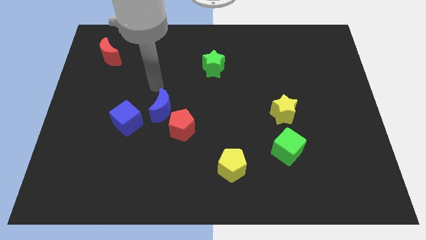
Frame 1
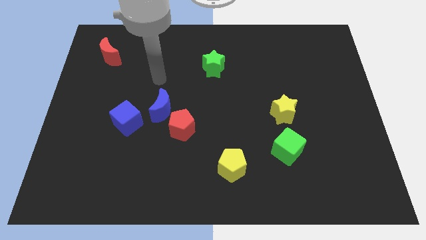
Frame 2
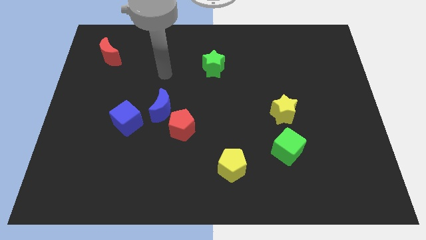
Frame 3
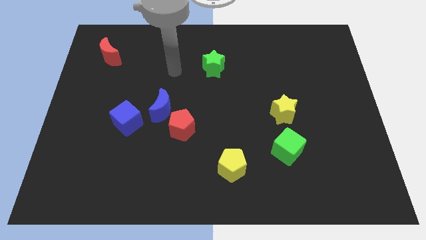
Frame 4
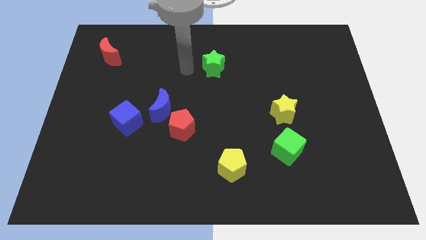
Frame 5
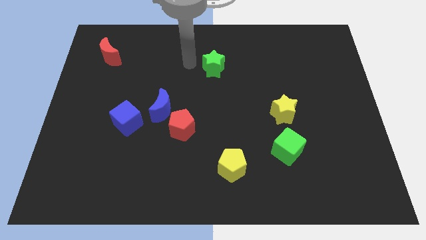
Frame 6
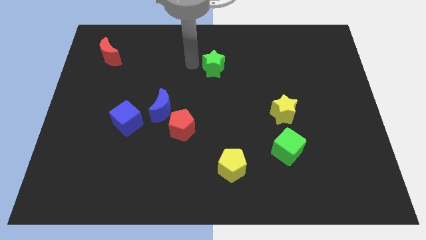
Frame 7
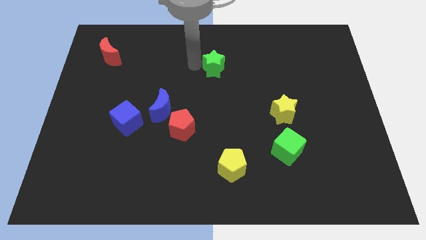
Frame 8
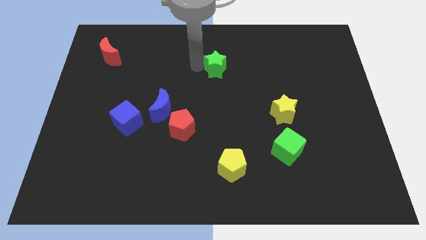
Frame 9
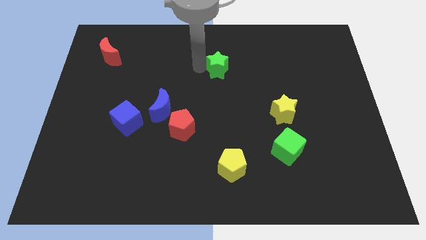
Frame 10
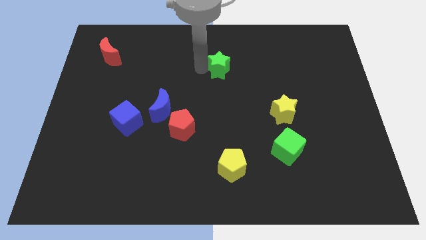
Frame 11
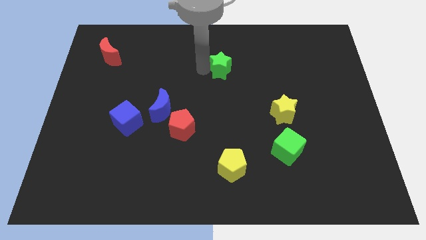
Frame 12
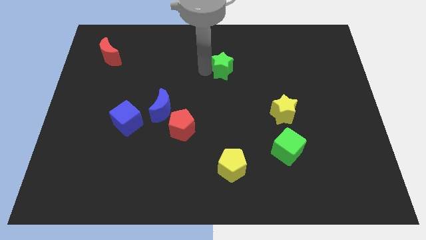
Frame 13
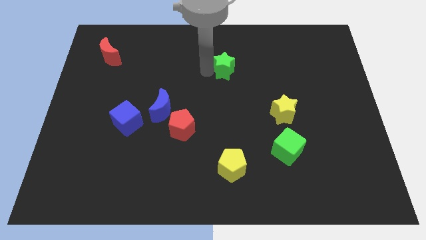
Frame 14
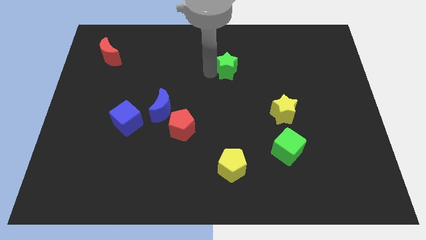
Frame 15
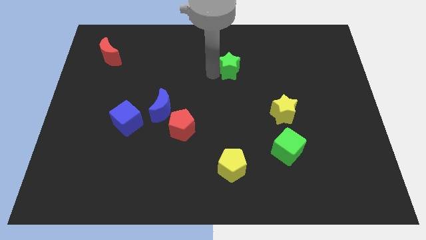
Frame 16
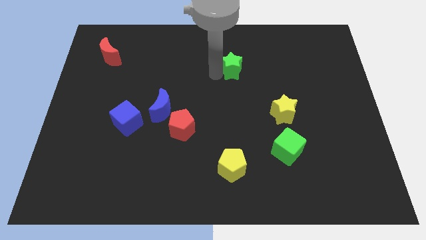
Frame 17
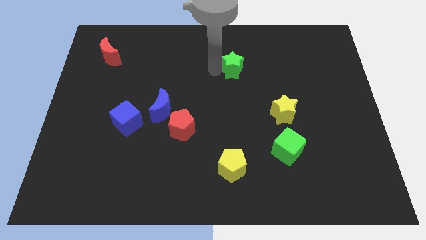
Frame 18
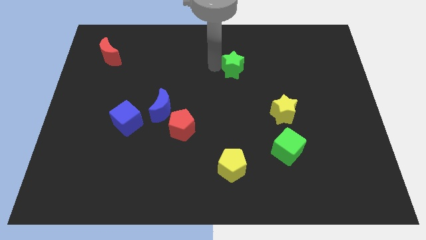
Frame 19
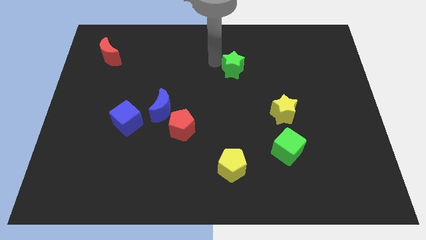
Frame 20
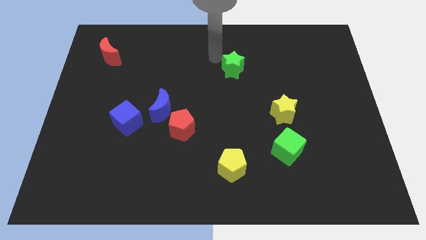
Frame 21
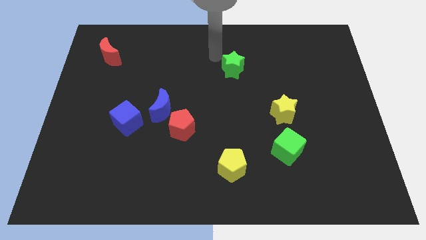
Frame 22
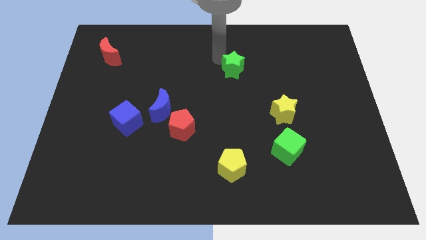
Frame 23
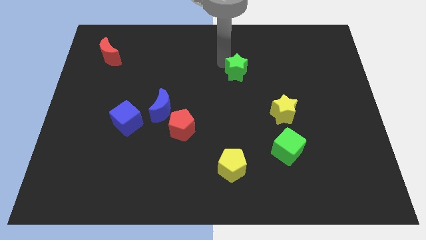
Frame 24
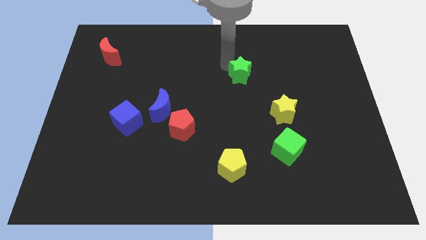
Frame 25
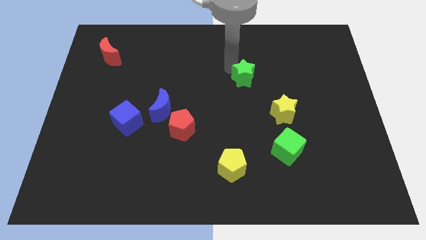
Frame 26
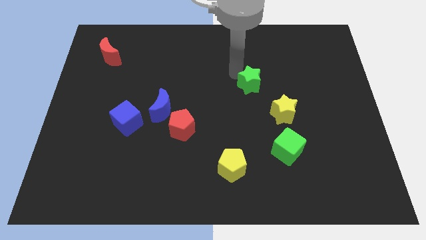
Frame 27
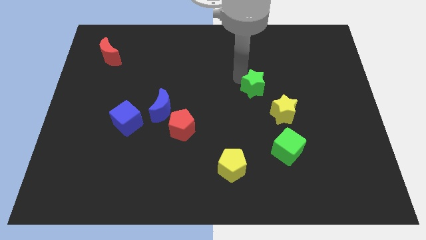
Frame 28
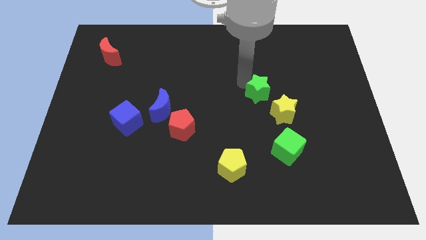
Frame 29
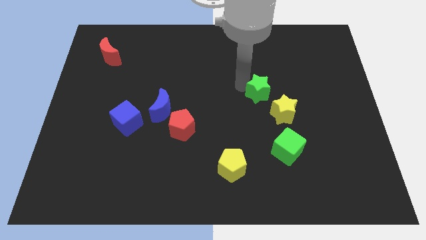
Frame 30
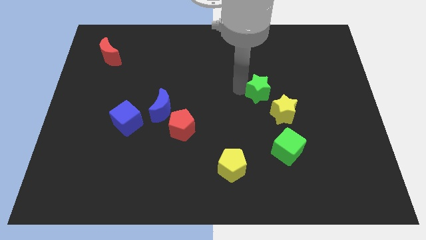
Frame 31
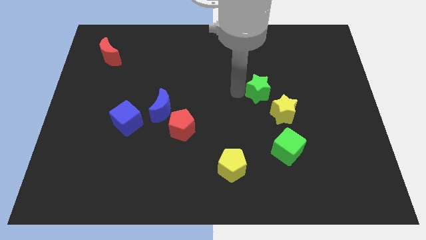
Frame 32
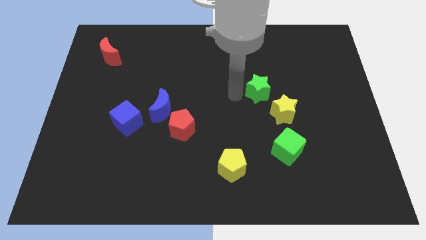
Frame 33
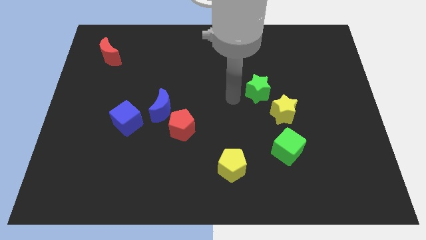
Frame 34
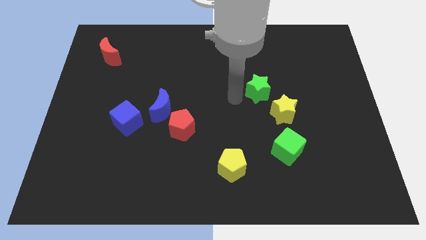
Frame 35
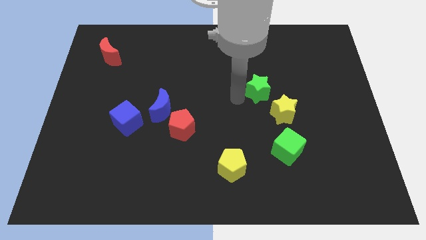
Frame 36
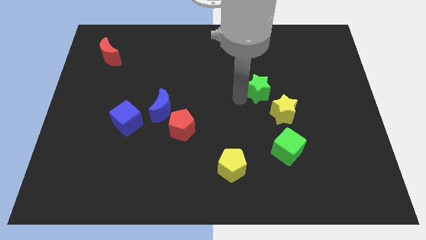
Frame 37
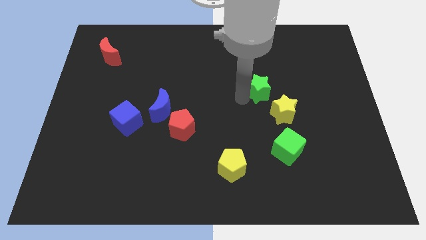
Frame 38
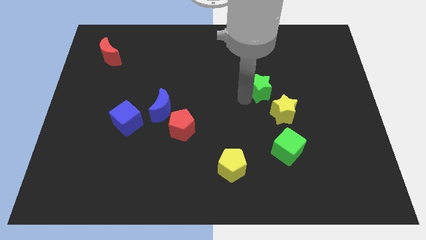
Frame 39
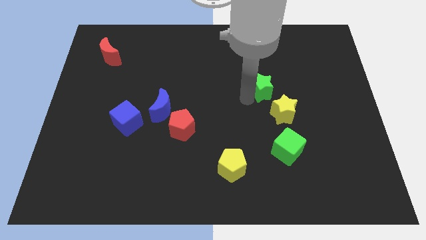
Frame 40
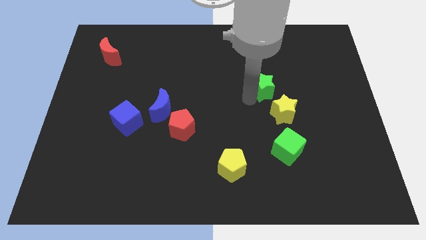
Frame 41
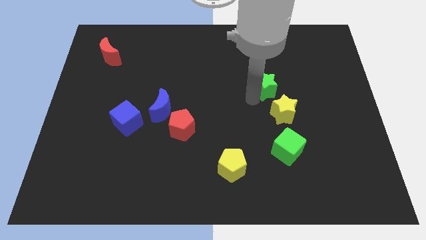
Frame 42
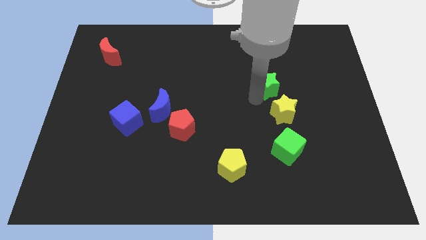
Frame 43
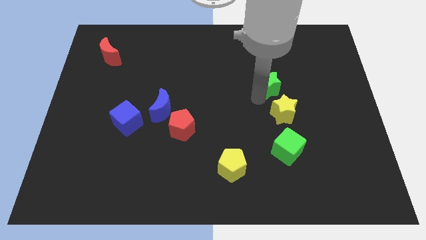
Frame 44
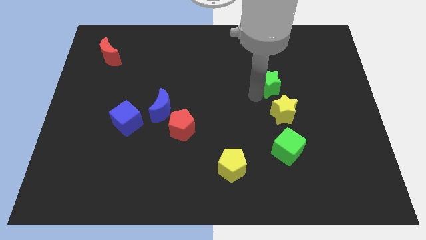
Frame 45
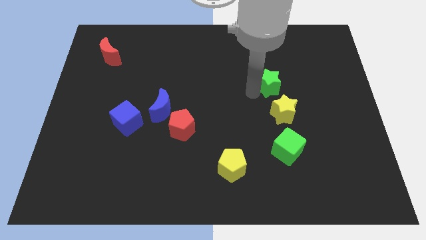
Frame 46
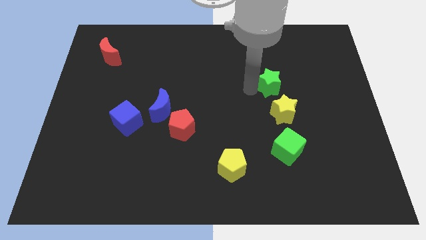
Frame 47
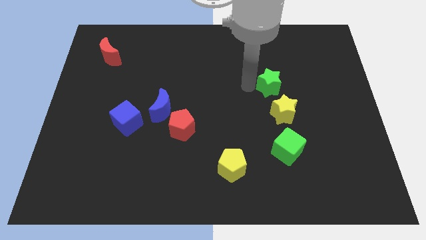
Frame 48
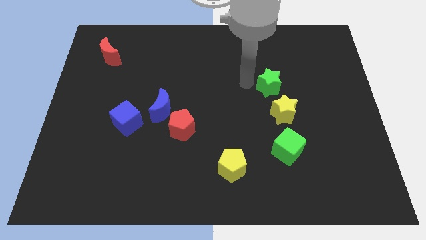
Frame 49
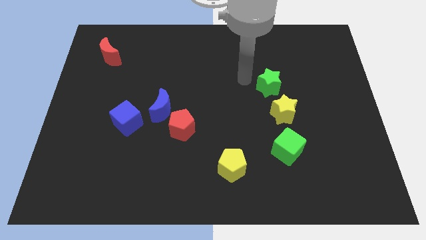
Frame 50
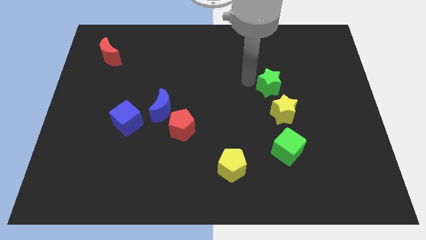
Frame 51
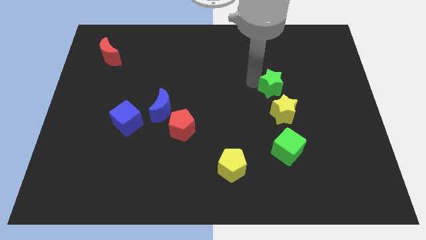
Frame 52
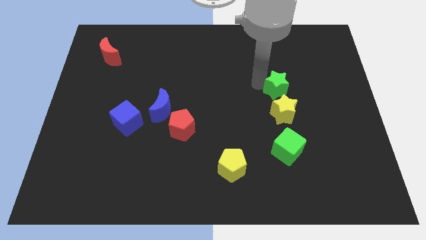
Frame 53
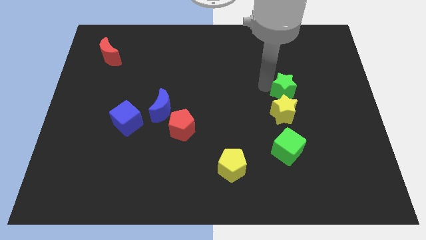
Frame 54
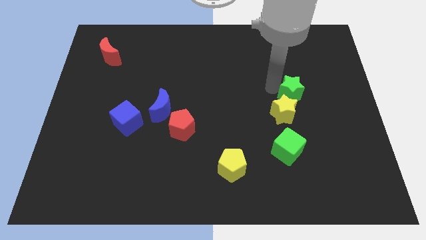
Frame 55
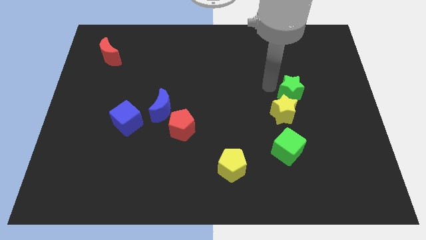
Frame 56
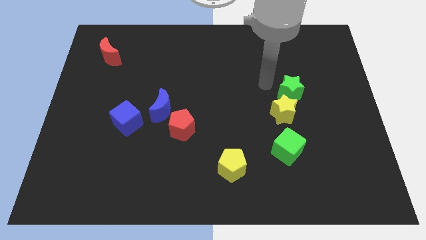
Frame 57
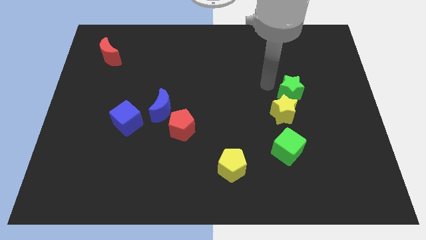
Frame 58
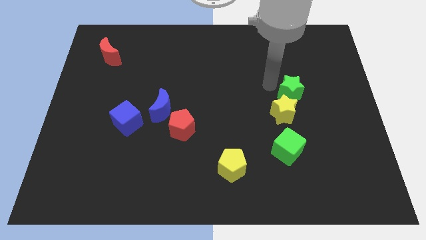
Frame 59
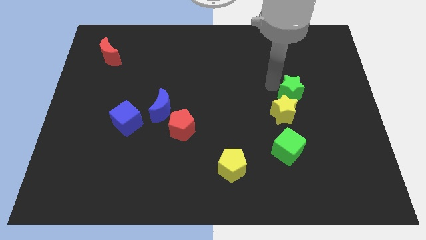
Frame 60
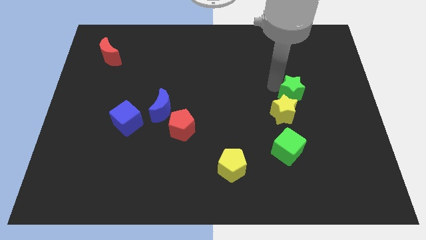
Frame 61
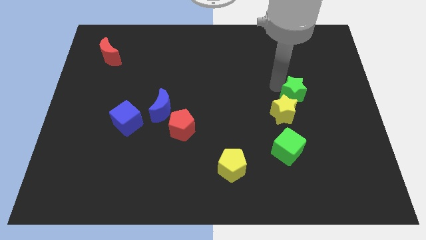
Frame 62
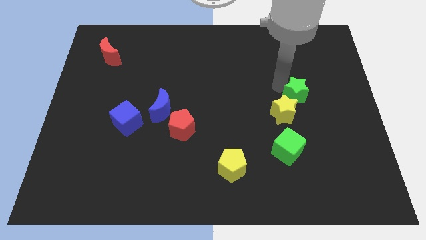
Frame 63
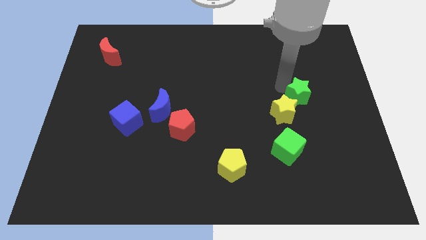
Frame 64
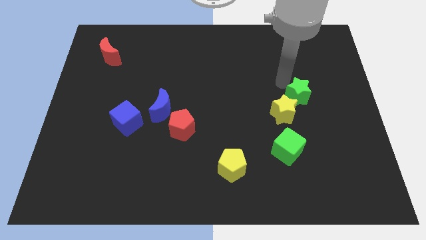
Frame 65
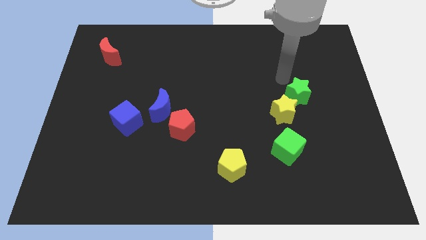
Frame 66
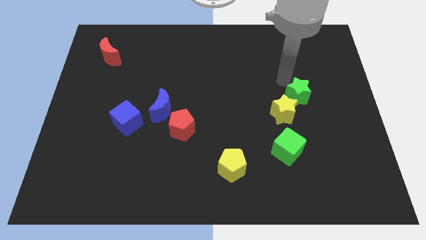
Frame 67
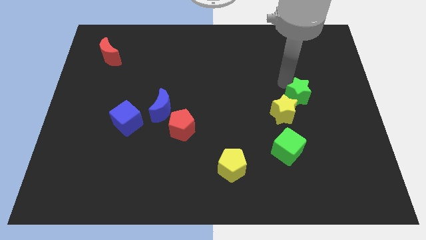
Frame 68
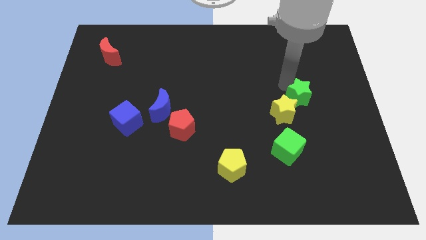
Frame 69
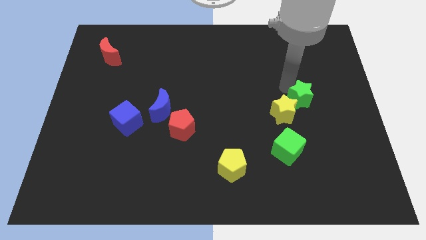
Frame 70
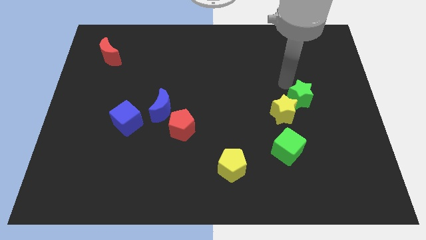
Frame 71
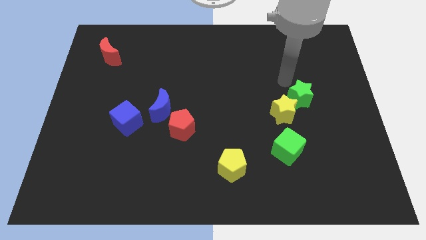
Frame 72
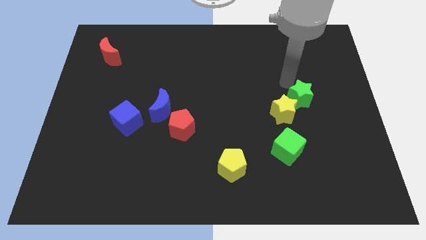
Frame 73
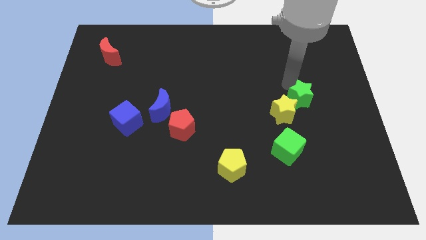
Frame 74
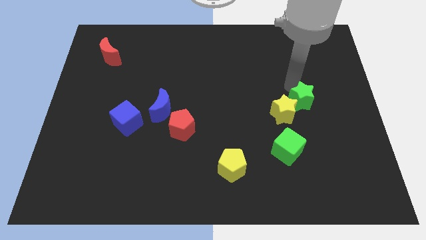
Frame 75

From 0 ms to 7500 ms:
move the green star diagonally down and to the right

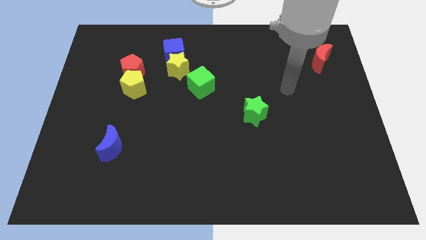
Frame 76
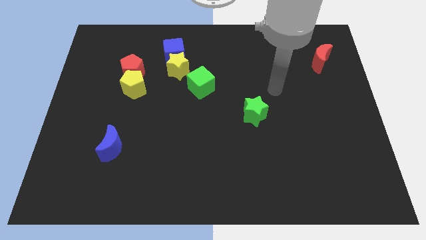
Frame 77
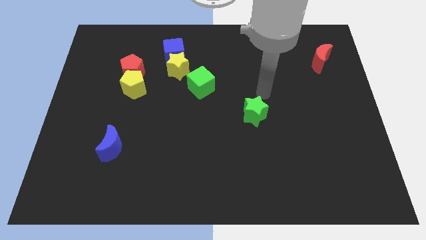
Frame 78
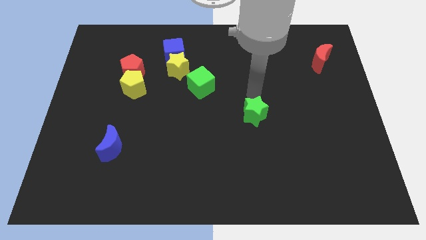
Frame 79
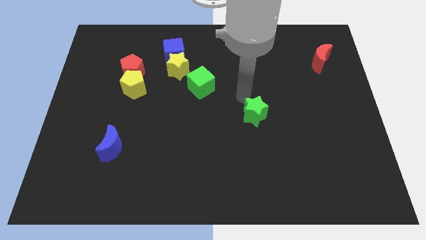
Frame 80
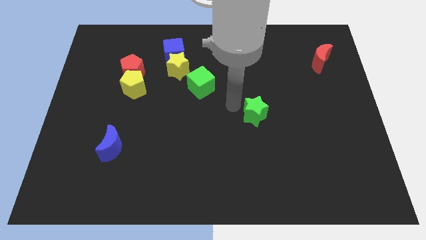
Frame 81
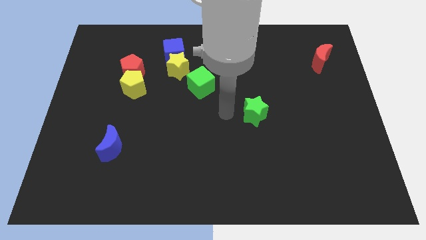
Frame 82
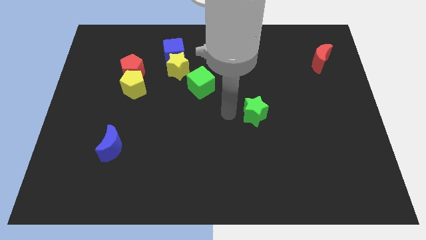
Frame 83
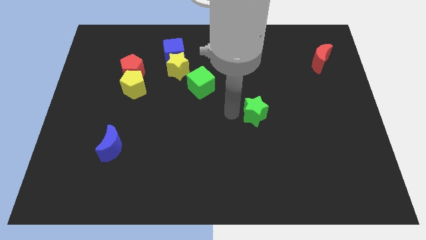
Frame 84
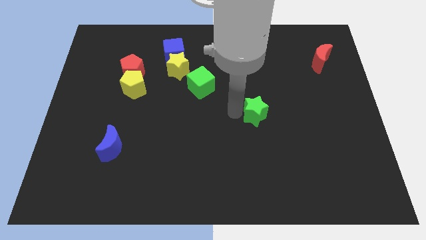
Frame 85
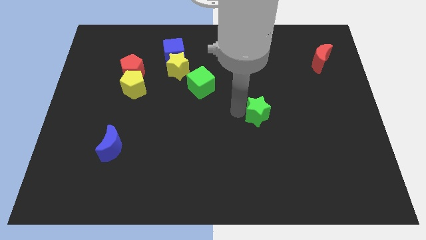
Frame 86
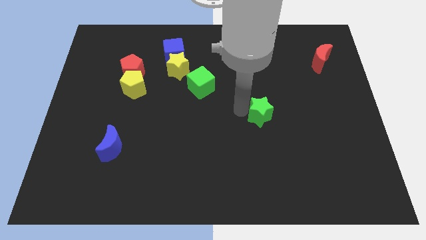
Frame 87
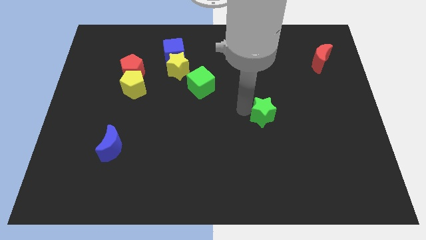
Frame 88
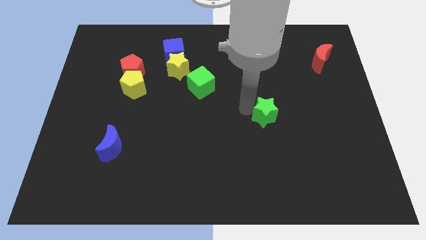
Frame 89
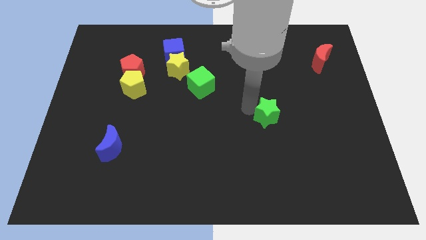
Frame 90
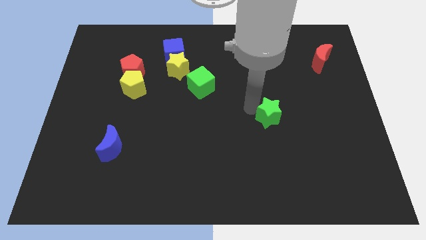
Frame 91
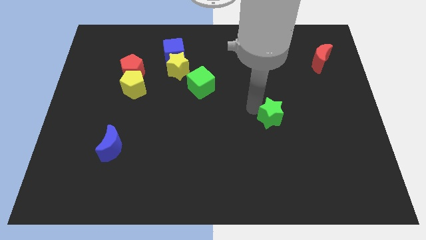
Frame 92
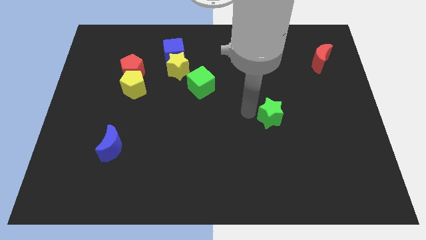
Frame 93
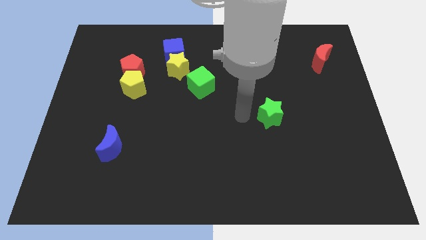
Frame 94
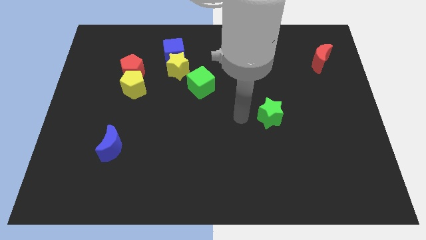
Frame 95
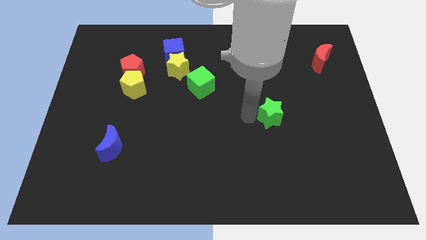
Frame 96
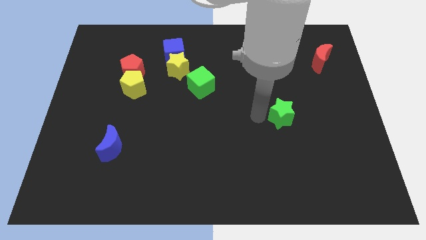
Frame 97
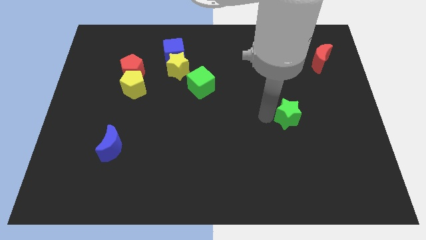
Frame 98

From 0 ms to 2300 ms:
push the green star a little right
